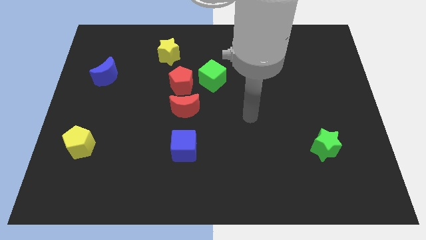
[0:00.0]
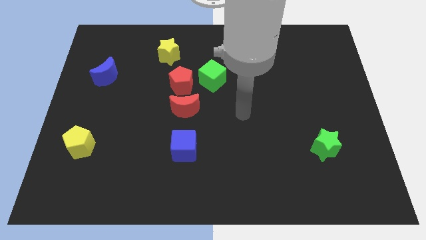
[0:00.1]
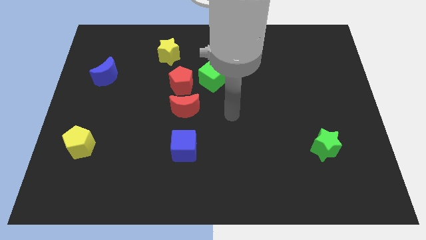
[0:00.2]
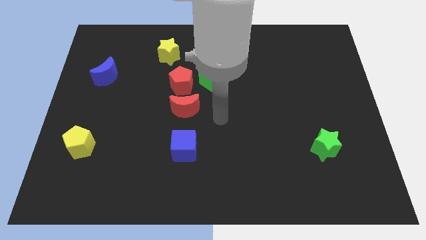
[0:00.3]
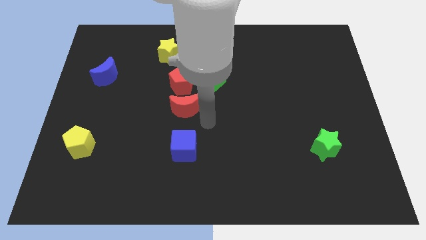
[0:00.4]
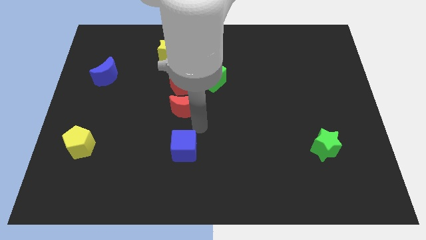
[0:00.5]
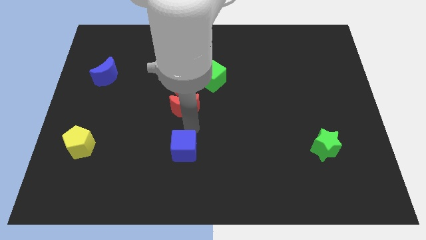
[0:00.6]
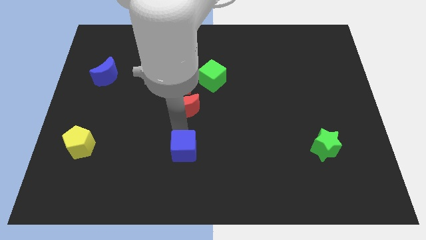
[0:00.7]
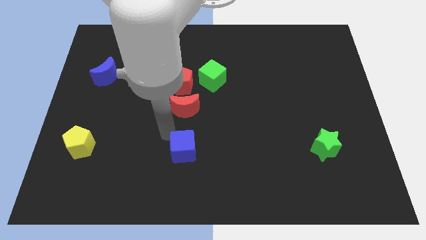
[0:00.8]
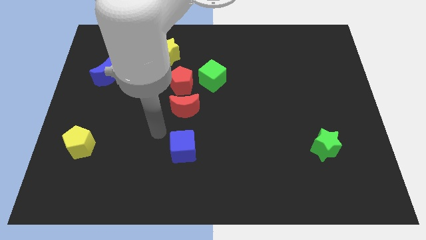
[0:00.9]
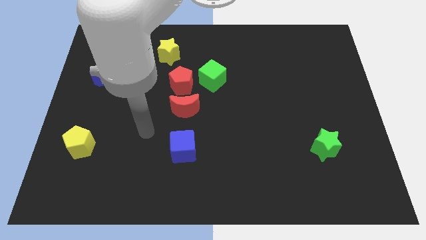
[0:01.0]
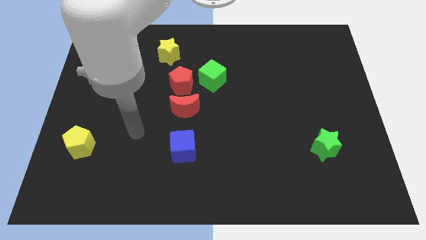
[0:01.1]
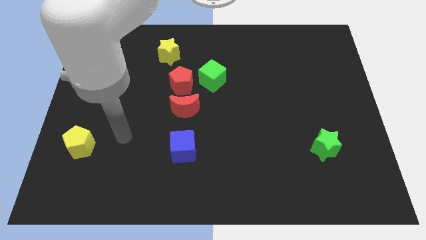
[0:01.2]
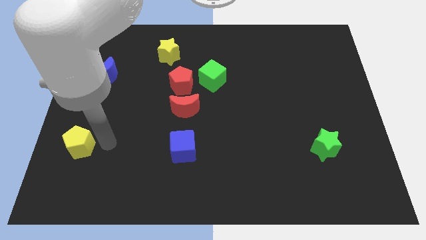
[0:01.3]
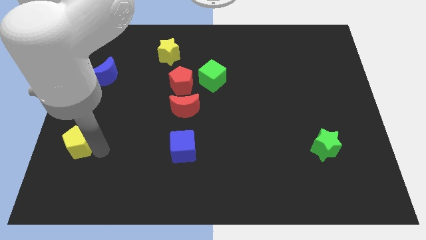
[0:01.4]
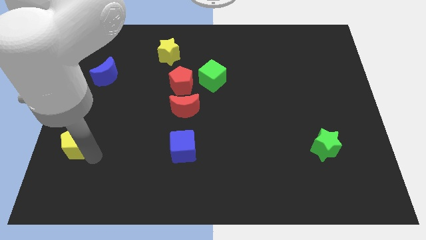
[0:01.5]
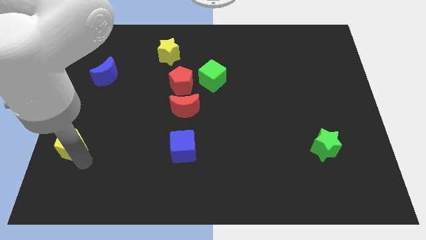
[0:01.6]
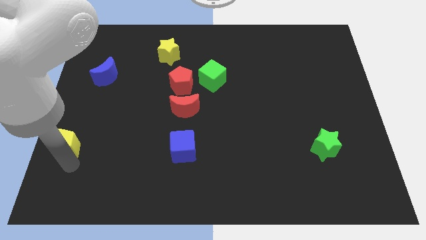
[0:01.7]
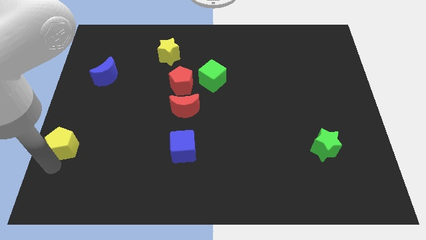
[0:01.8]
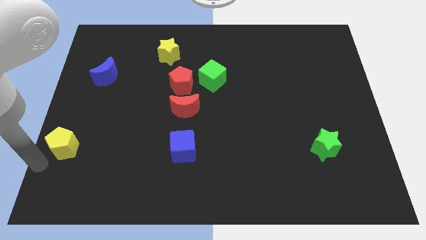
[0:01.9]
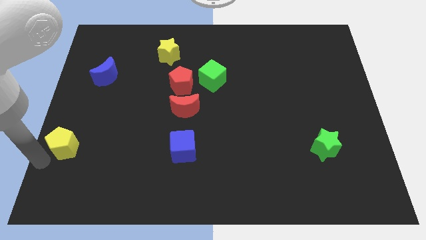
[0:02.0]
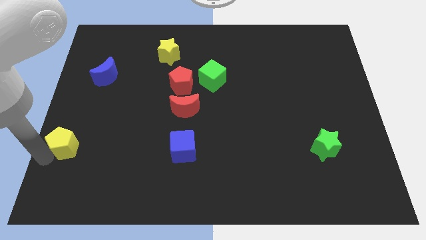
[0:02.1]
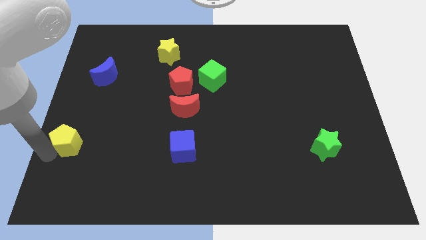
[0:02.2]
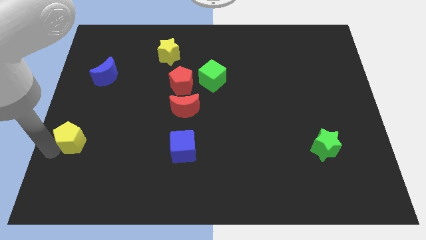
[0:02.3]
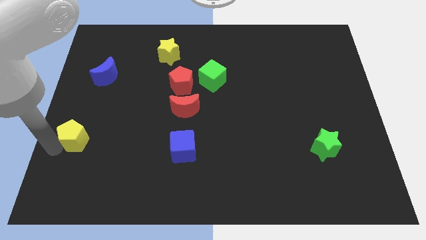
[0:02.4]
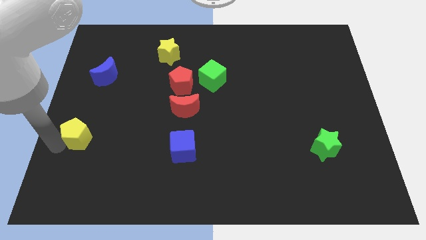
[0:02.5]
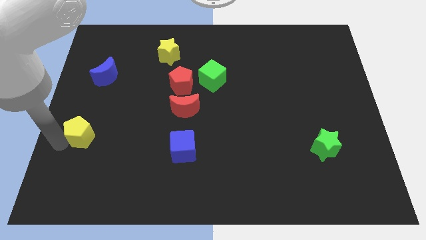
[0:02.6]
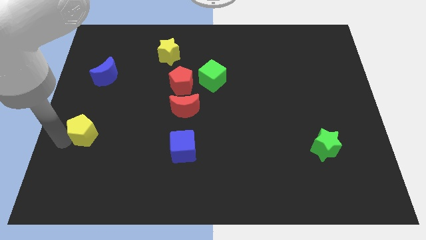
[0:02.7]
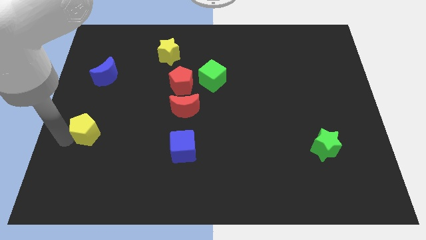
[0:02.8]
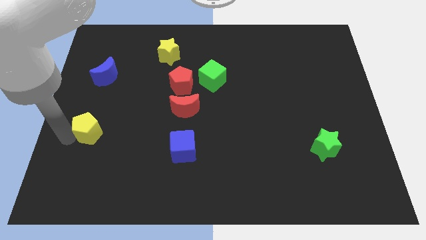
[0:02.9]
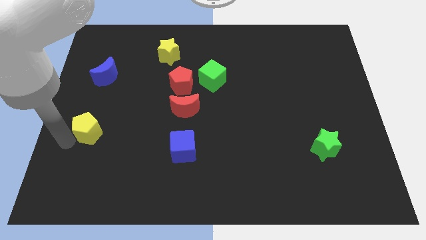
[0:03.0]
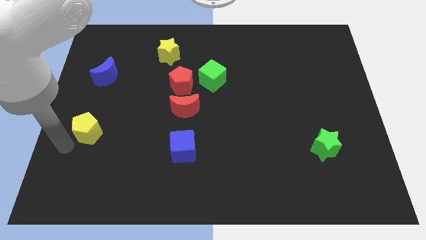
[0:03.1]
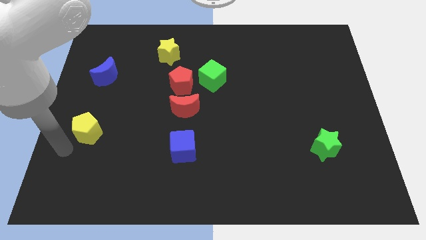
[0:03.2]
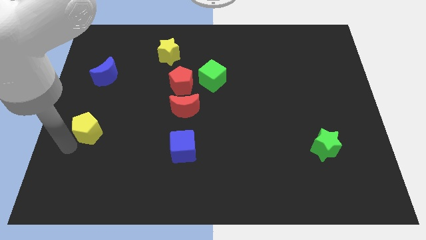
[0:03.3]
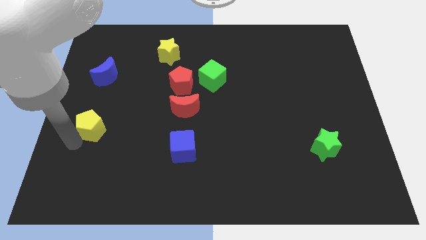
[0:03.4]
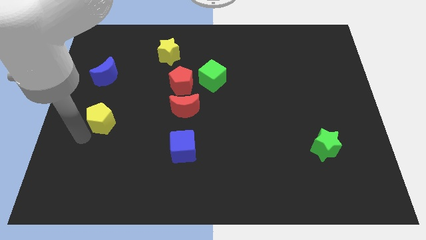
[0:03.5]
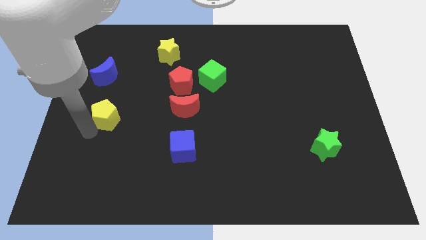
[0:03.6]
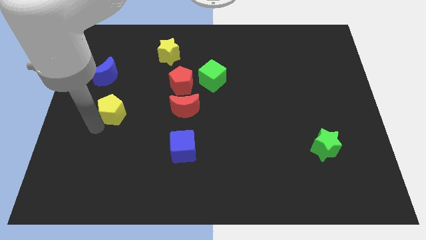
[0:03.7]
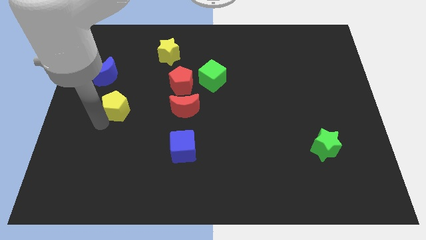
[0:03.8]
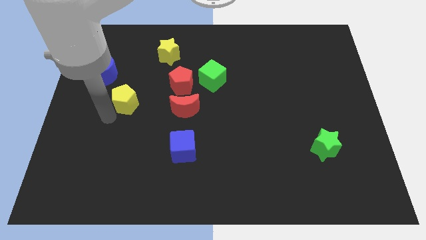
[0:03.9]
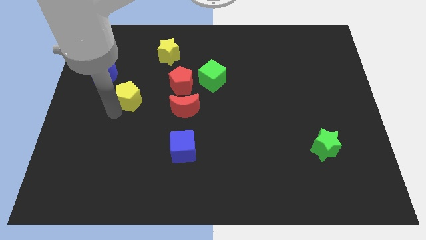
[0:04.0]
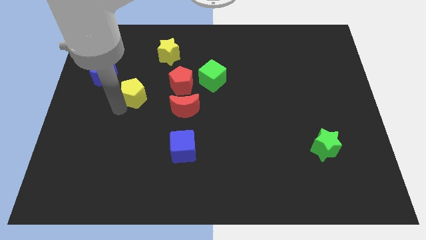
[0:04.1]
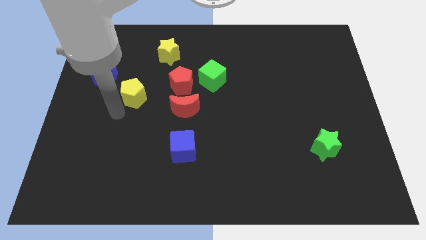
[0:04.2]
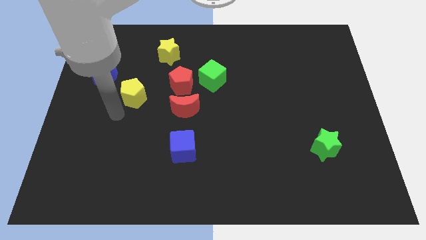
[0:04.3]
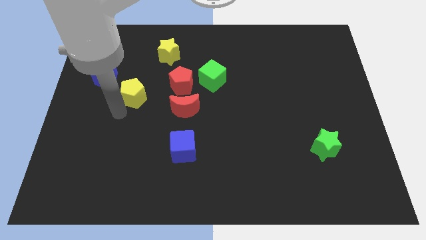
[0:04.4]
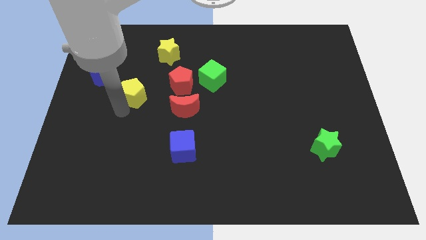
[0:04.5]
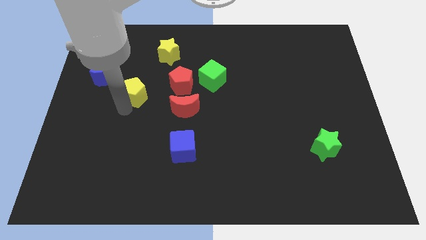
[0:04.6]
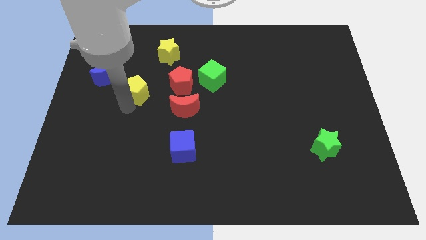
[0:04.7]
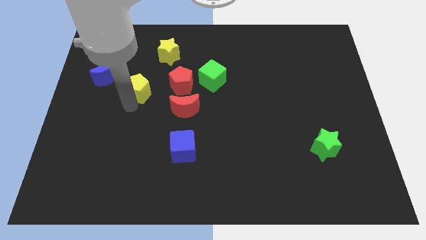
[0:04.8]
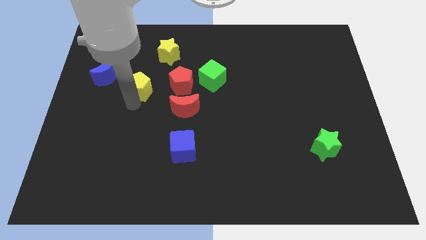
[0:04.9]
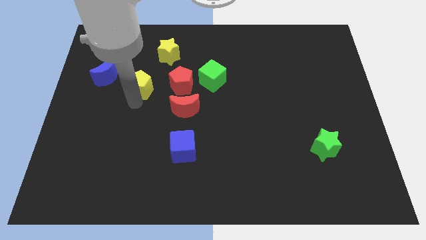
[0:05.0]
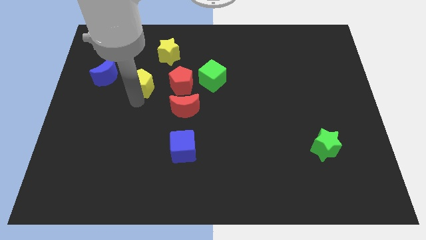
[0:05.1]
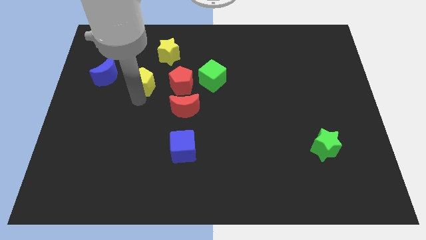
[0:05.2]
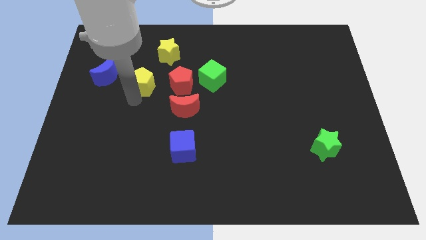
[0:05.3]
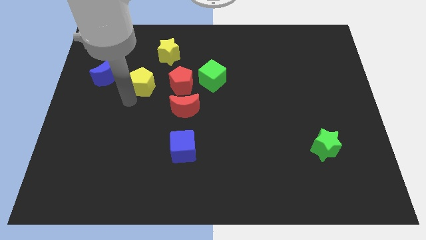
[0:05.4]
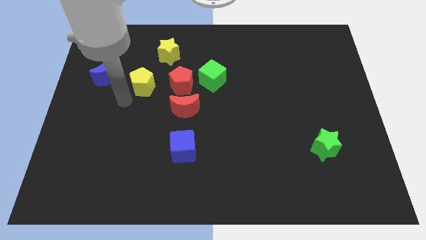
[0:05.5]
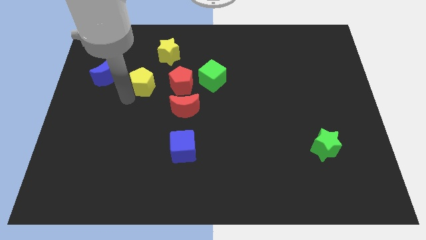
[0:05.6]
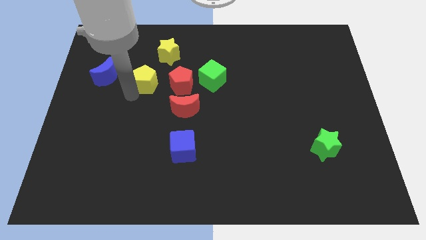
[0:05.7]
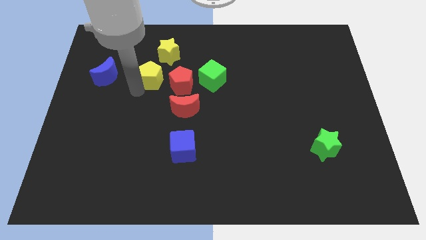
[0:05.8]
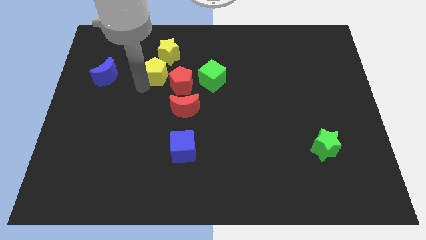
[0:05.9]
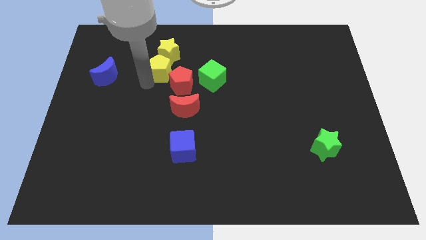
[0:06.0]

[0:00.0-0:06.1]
move the yellow pentagon towards the yellow star
